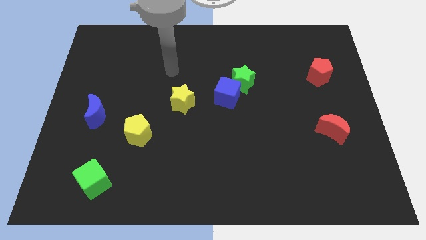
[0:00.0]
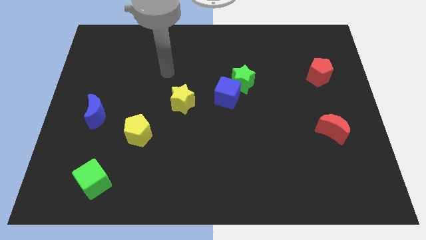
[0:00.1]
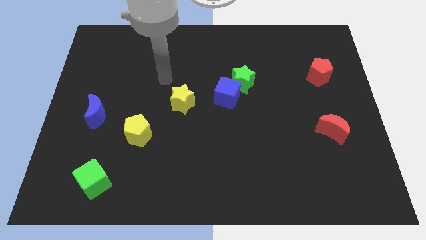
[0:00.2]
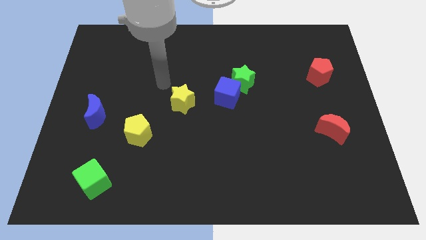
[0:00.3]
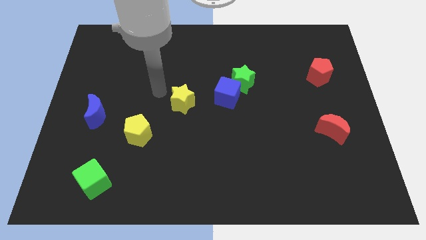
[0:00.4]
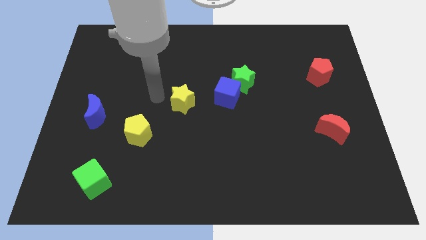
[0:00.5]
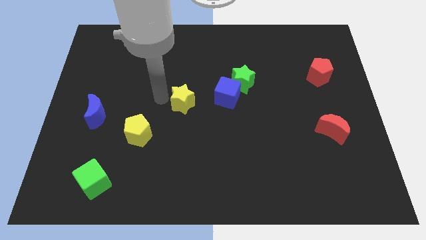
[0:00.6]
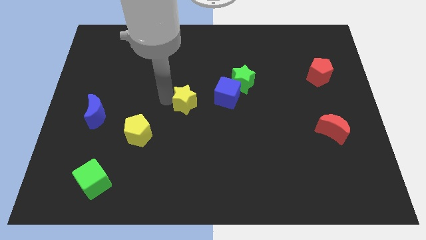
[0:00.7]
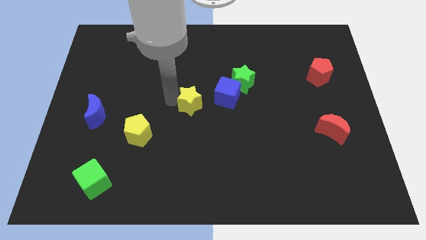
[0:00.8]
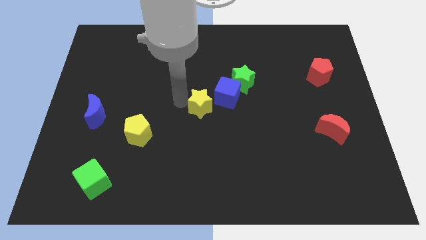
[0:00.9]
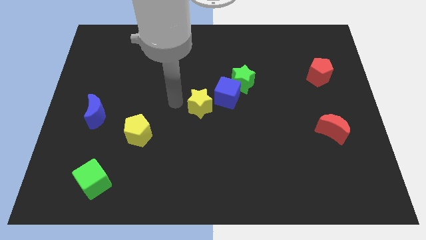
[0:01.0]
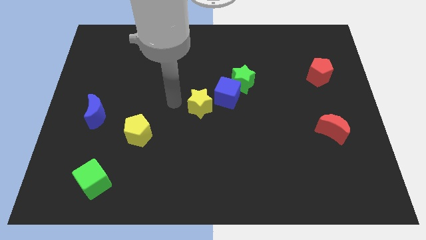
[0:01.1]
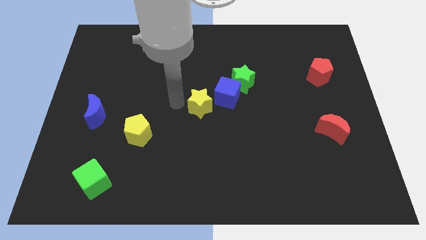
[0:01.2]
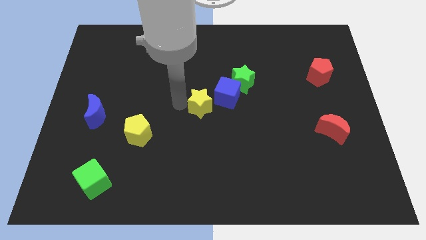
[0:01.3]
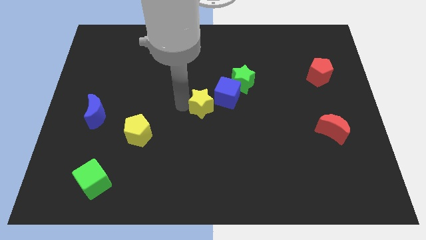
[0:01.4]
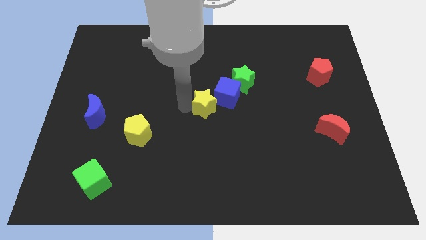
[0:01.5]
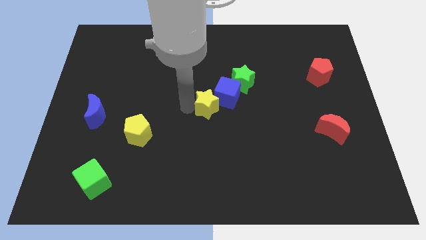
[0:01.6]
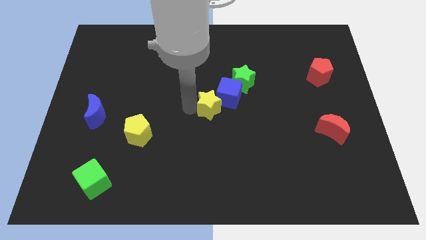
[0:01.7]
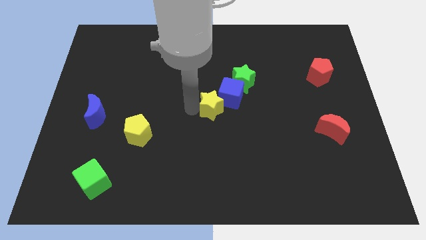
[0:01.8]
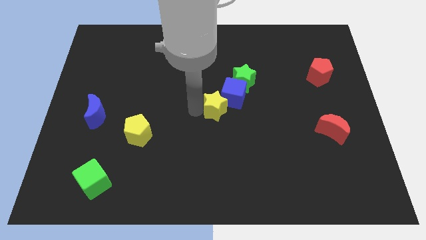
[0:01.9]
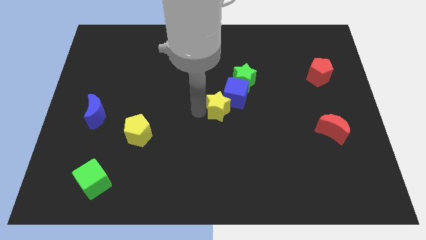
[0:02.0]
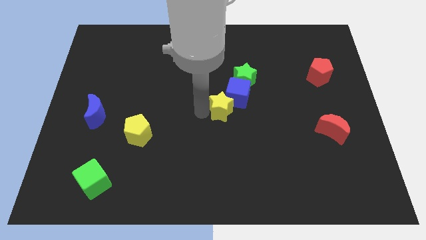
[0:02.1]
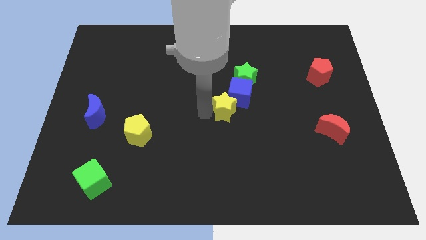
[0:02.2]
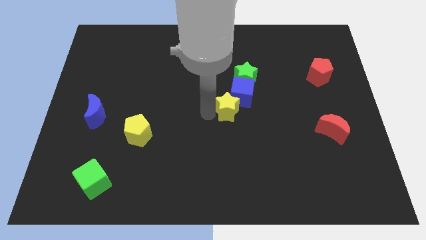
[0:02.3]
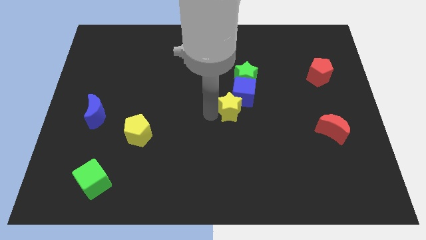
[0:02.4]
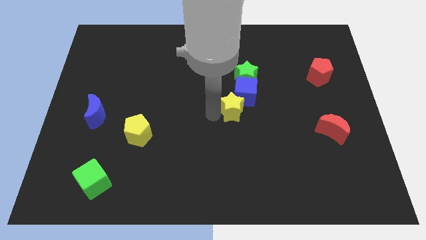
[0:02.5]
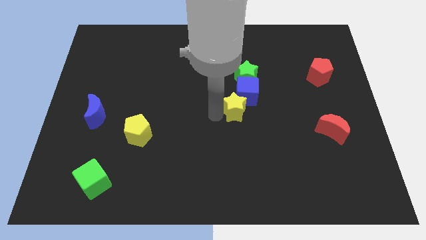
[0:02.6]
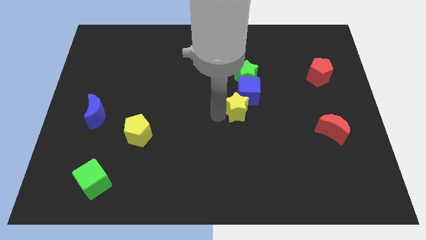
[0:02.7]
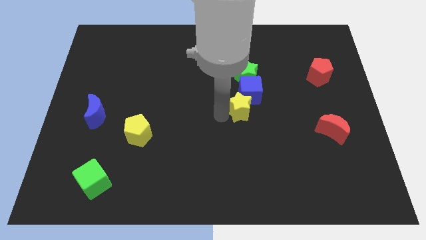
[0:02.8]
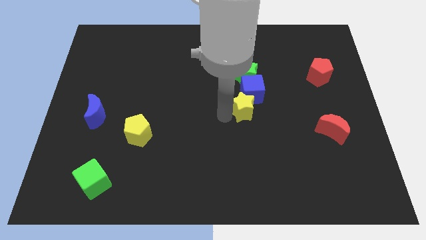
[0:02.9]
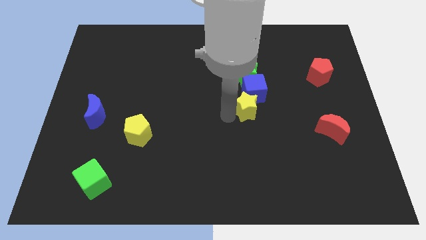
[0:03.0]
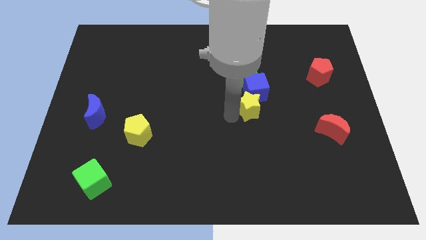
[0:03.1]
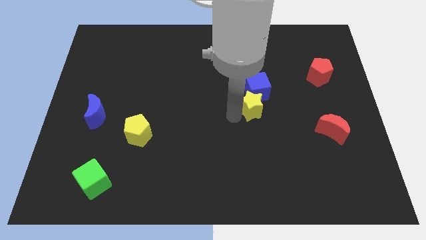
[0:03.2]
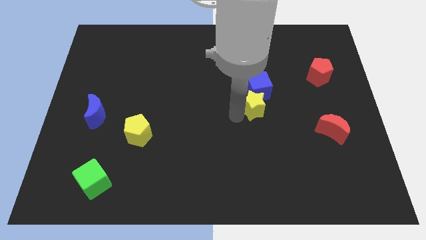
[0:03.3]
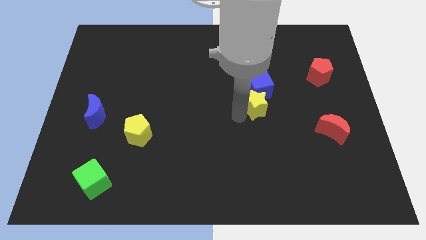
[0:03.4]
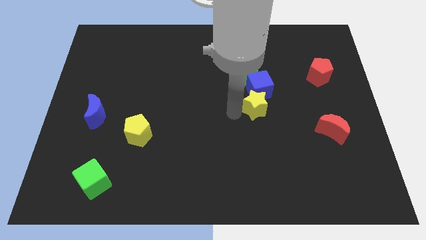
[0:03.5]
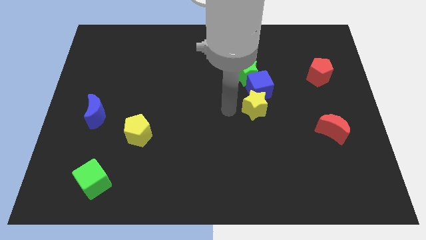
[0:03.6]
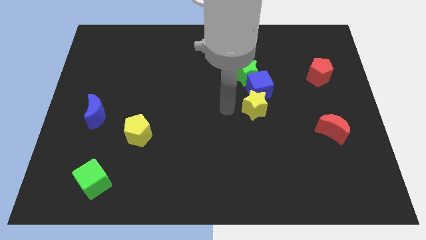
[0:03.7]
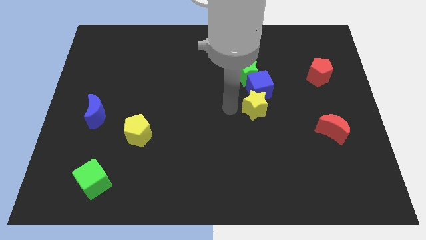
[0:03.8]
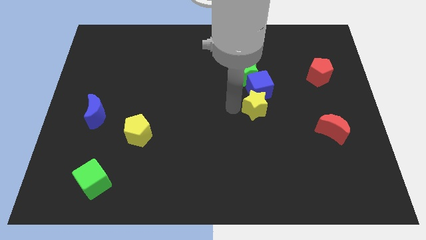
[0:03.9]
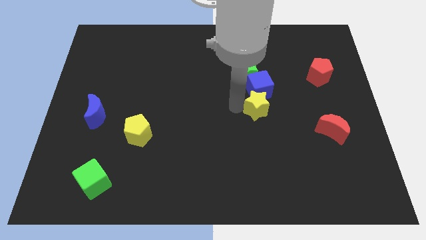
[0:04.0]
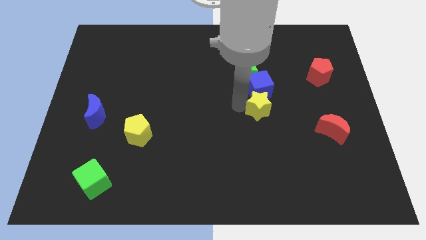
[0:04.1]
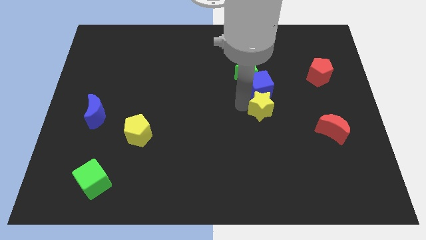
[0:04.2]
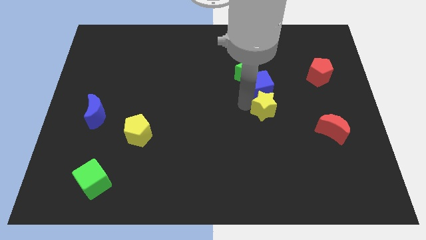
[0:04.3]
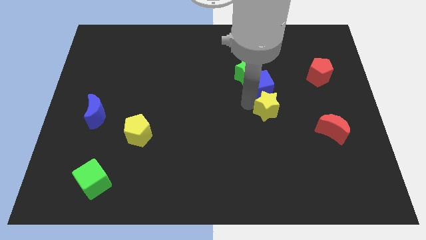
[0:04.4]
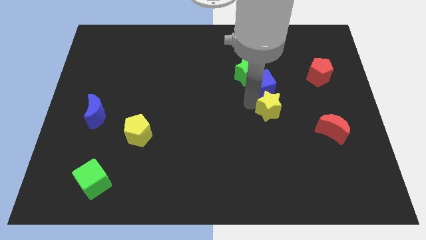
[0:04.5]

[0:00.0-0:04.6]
slide the yellow star to the right

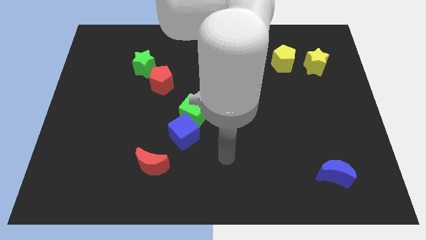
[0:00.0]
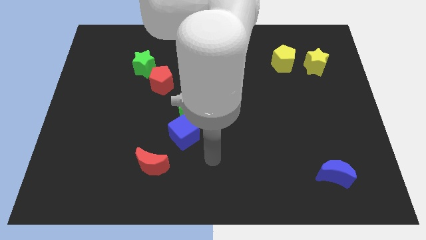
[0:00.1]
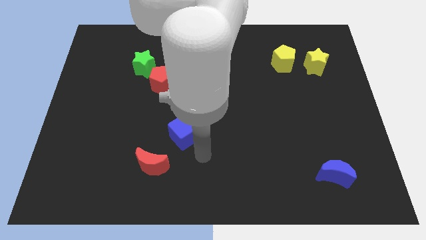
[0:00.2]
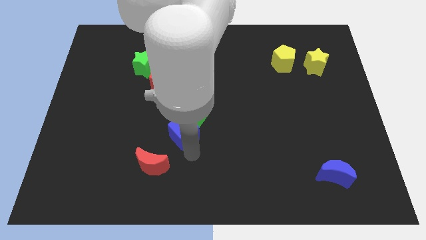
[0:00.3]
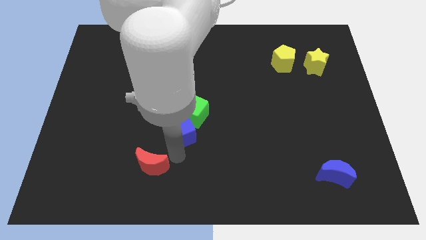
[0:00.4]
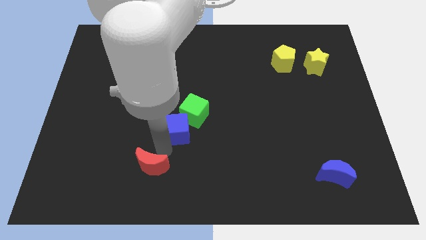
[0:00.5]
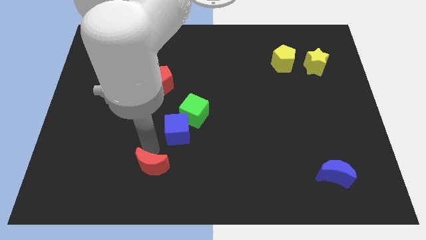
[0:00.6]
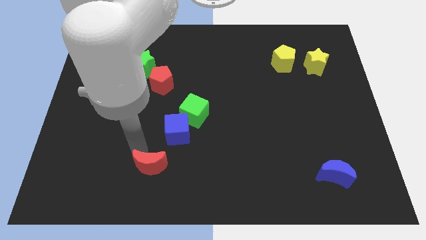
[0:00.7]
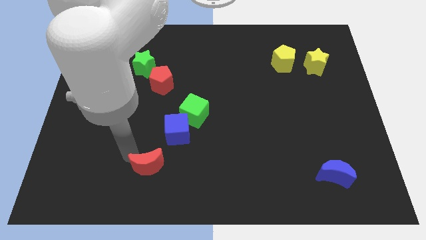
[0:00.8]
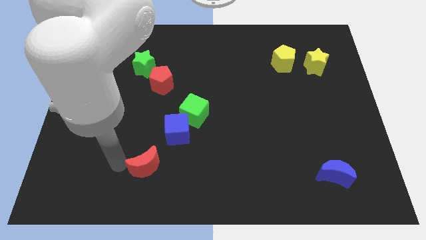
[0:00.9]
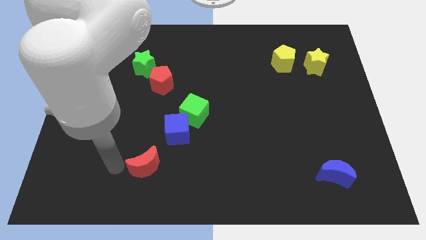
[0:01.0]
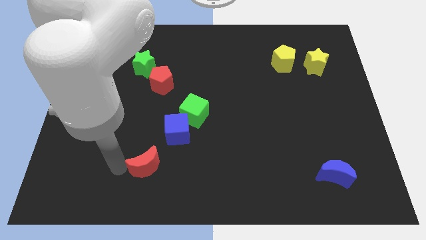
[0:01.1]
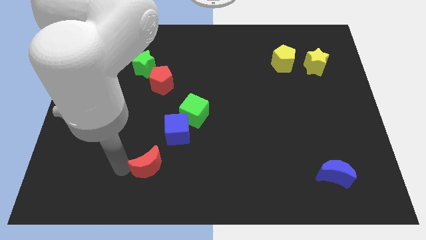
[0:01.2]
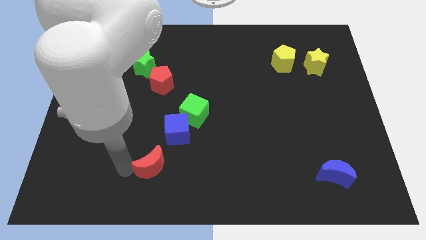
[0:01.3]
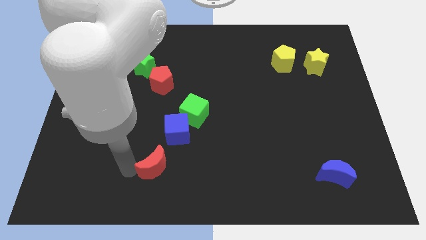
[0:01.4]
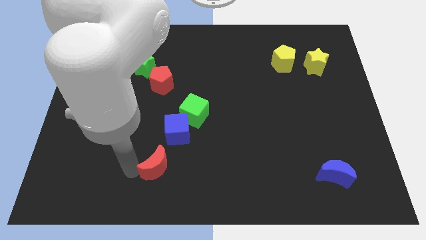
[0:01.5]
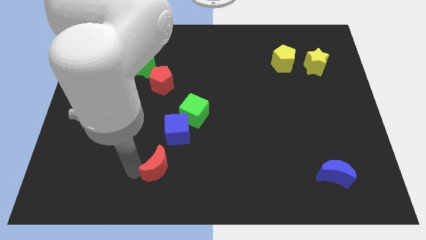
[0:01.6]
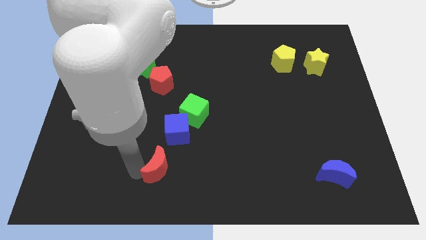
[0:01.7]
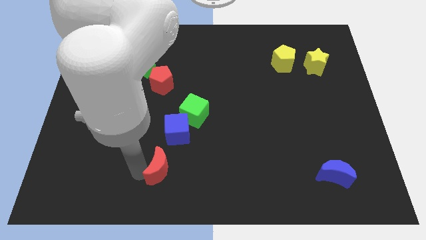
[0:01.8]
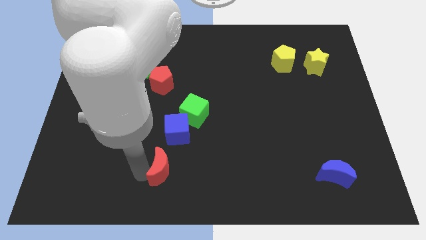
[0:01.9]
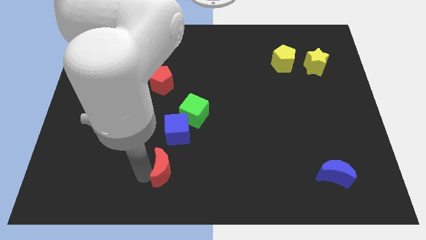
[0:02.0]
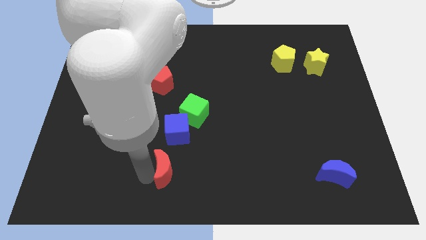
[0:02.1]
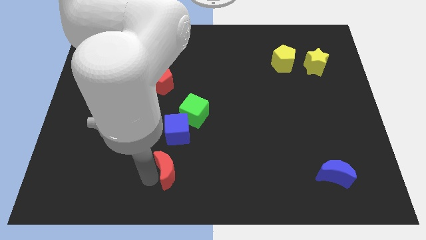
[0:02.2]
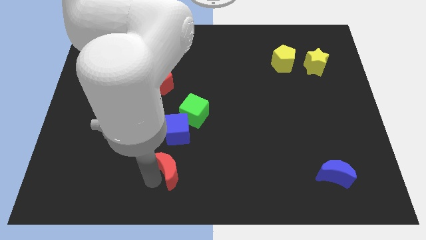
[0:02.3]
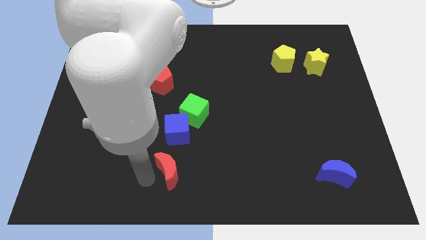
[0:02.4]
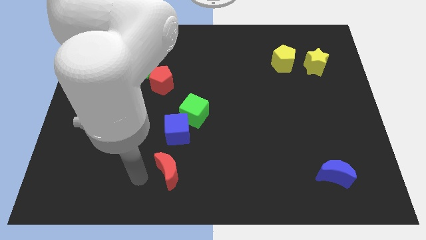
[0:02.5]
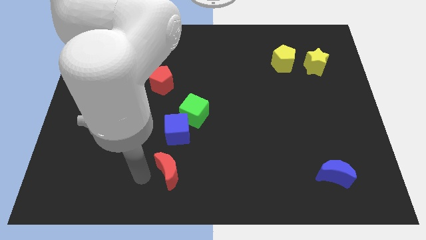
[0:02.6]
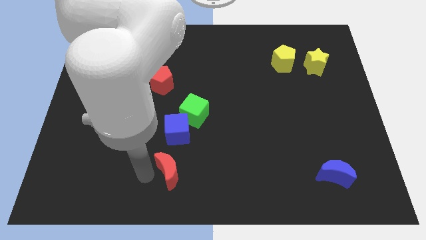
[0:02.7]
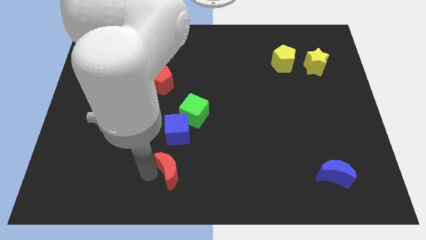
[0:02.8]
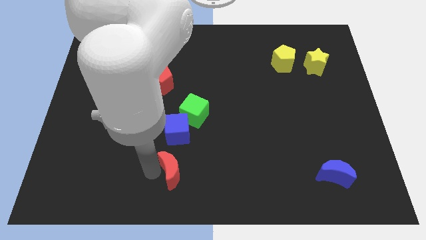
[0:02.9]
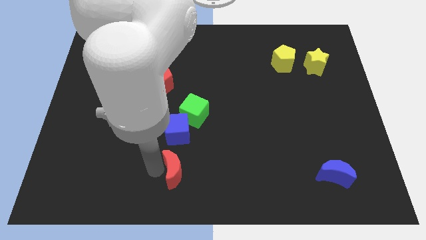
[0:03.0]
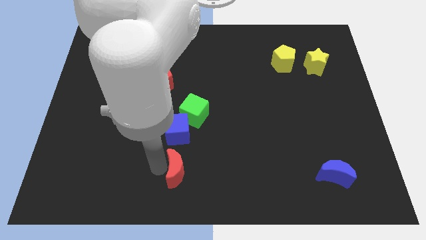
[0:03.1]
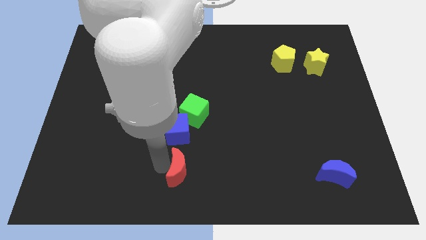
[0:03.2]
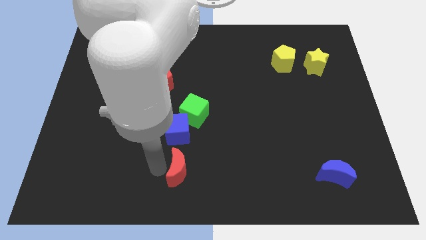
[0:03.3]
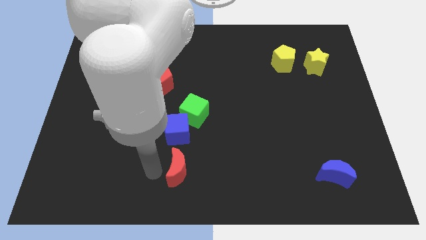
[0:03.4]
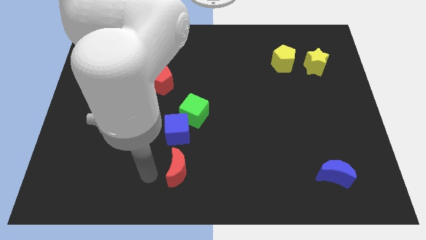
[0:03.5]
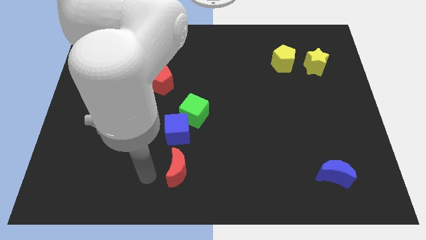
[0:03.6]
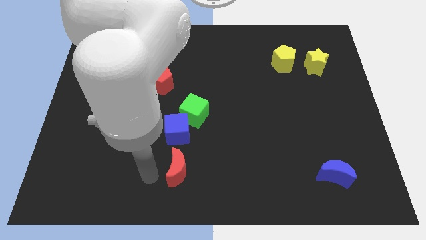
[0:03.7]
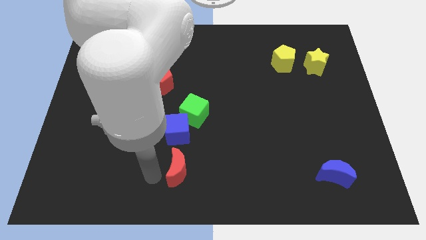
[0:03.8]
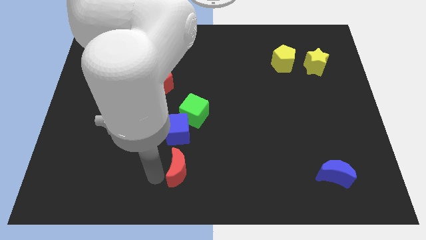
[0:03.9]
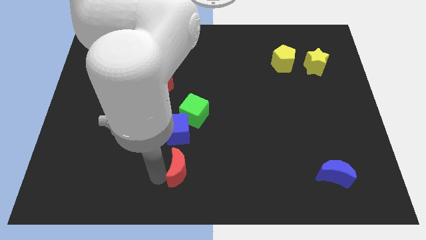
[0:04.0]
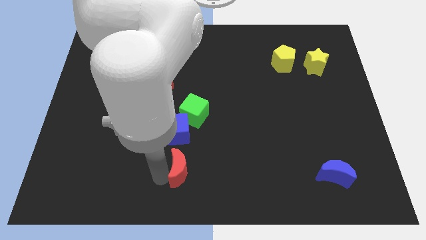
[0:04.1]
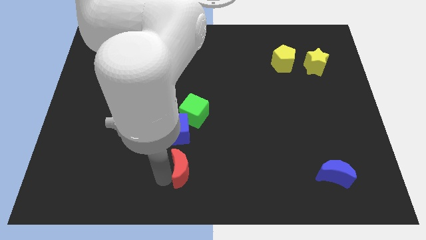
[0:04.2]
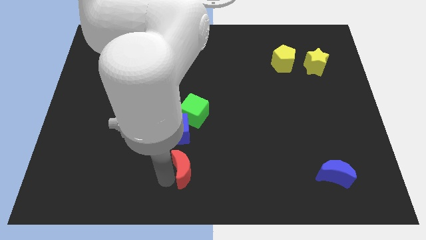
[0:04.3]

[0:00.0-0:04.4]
slide the red moon somewhat to the right
